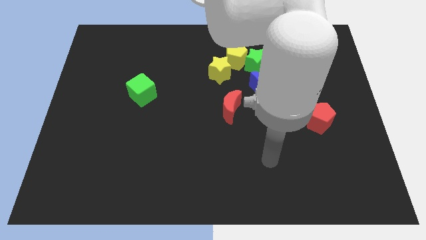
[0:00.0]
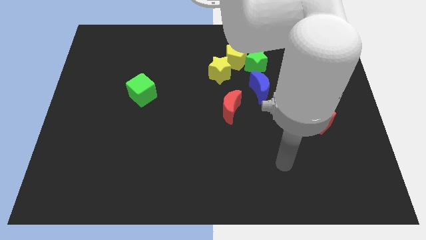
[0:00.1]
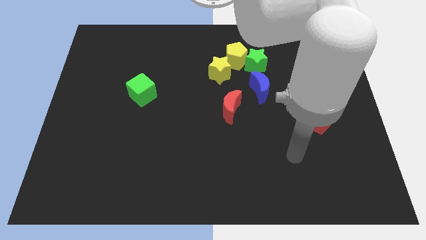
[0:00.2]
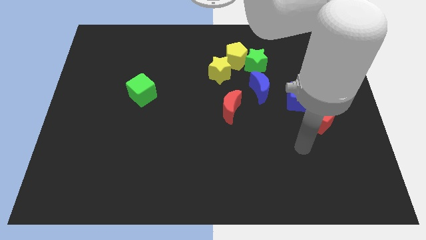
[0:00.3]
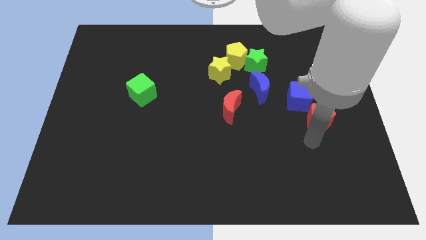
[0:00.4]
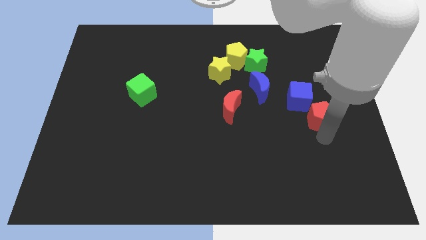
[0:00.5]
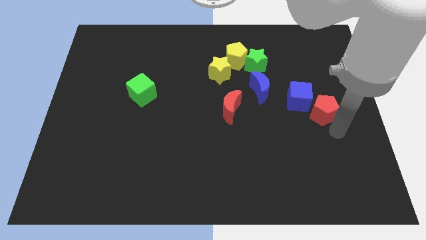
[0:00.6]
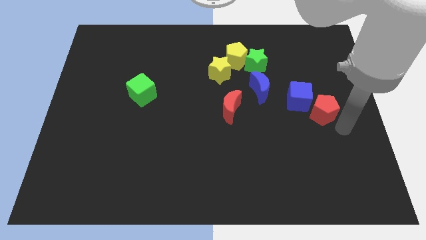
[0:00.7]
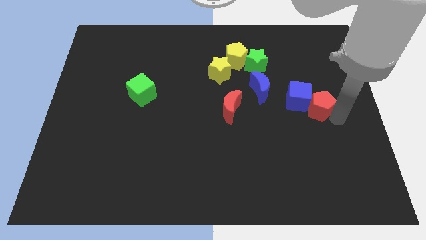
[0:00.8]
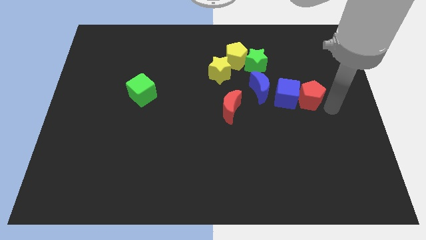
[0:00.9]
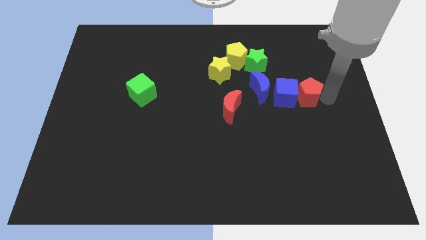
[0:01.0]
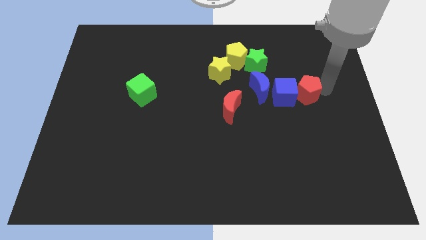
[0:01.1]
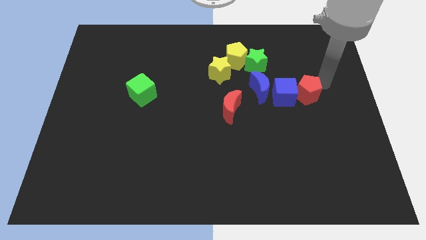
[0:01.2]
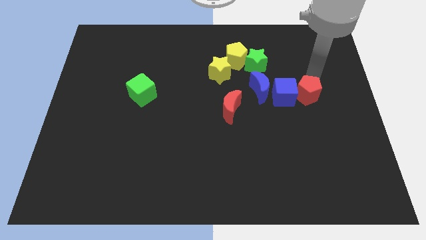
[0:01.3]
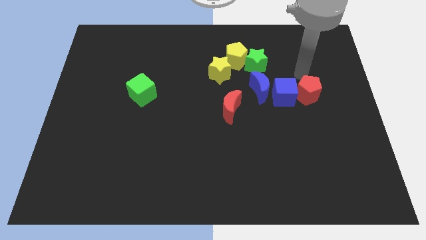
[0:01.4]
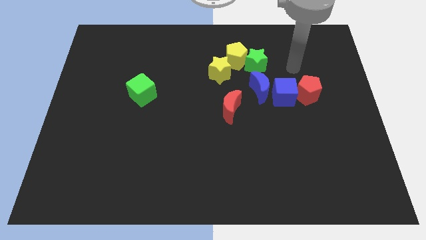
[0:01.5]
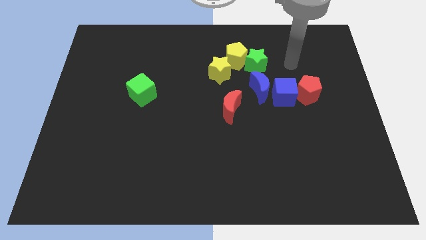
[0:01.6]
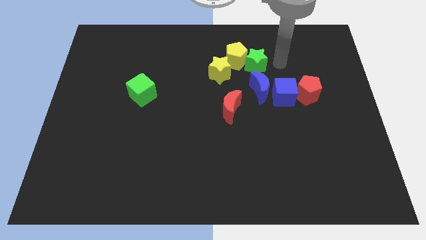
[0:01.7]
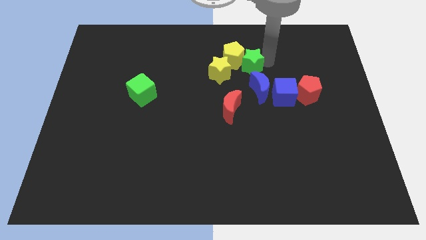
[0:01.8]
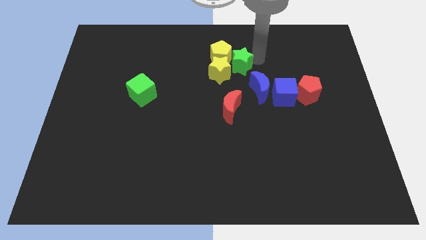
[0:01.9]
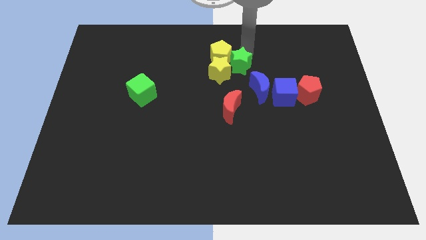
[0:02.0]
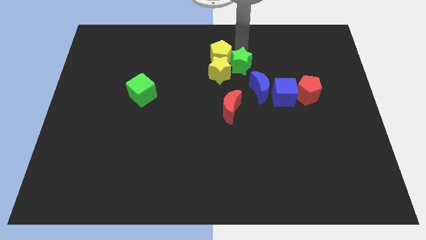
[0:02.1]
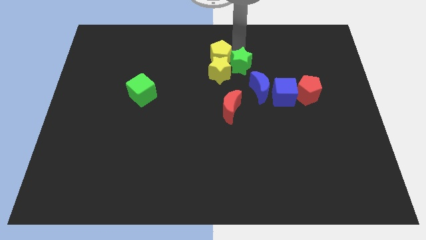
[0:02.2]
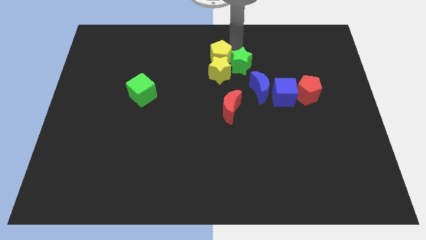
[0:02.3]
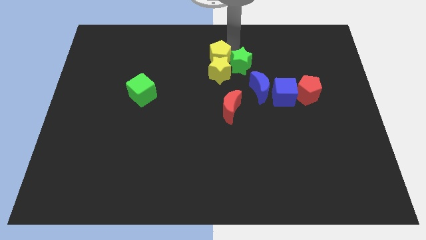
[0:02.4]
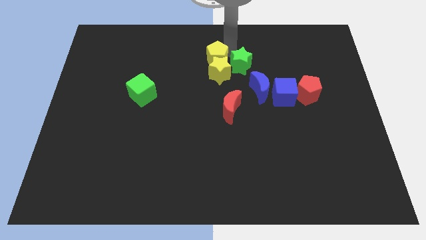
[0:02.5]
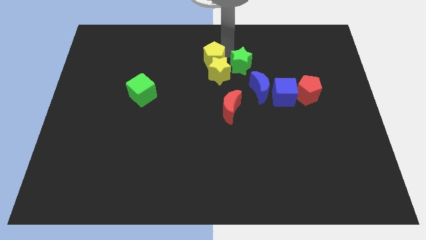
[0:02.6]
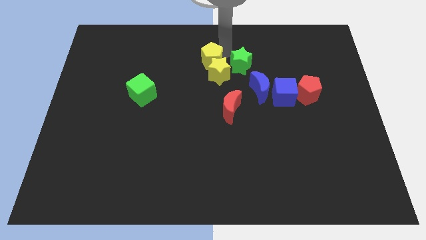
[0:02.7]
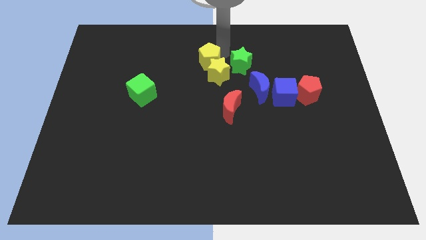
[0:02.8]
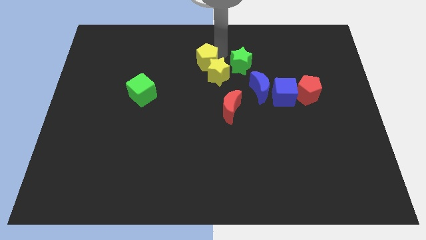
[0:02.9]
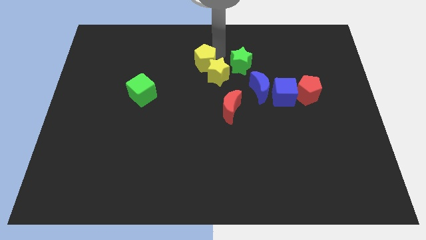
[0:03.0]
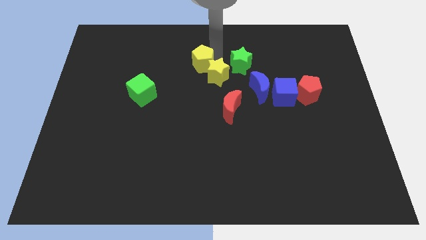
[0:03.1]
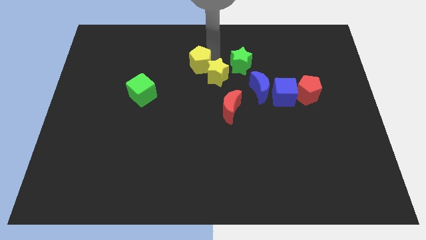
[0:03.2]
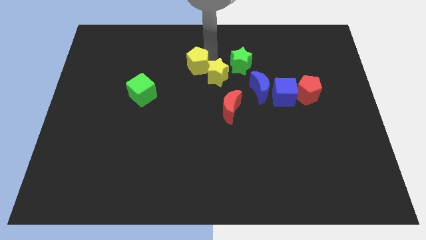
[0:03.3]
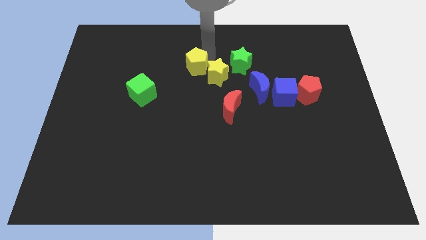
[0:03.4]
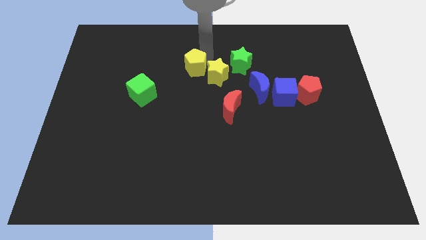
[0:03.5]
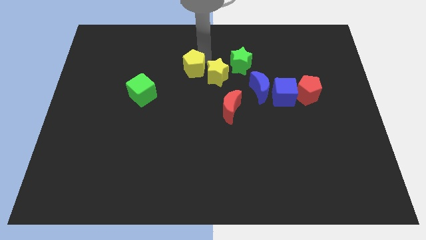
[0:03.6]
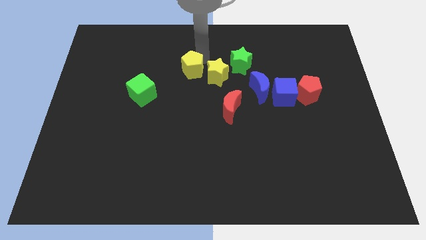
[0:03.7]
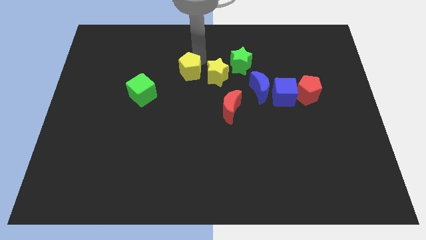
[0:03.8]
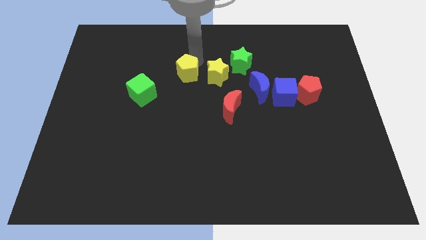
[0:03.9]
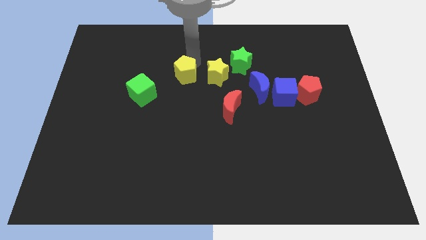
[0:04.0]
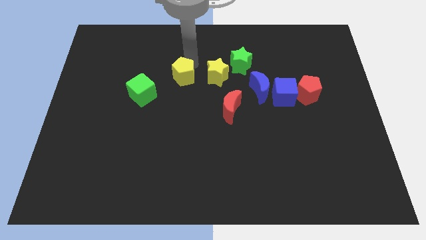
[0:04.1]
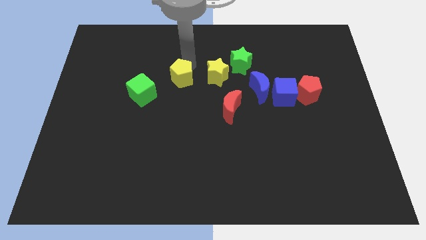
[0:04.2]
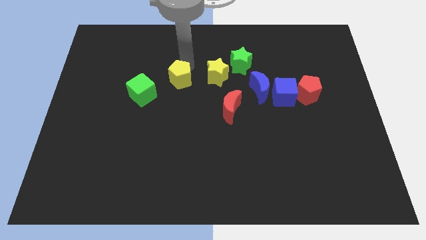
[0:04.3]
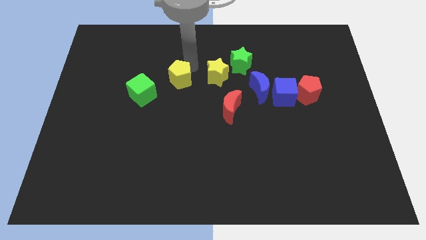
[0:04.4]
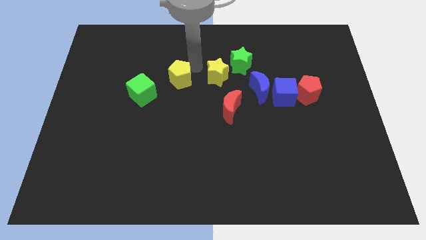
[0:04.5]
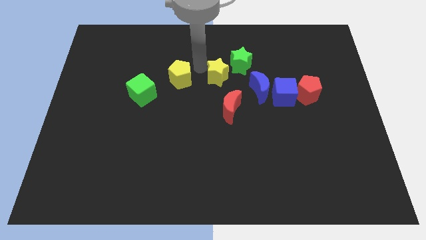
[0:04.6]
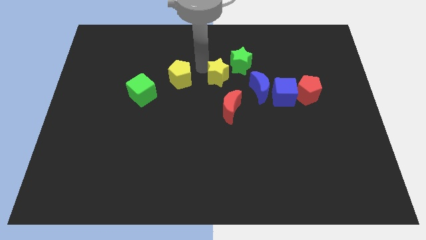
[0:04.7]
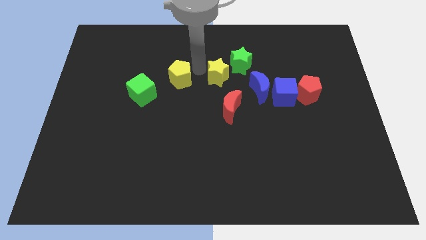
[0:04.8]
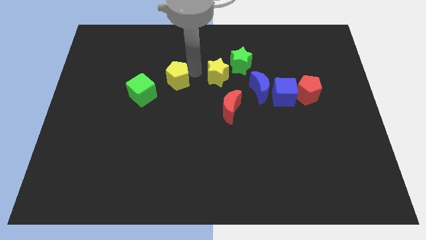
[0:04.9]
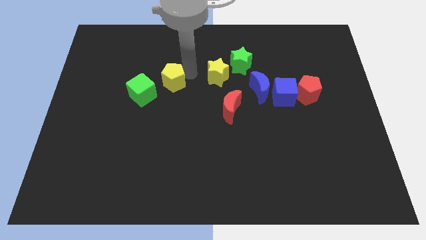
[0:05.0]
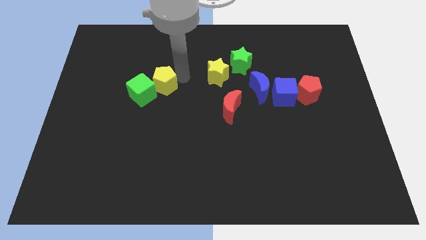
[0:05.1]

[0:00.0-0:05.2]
put the yellow pentagon close to the green cube

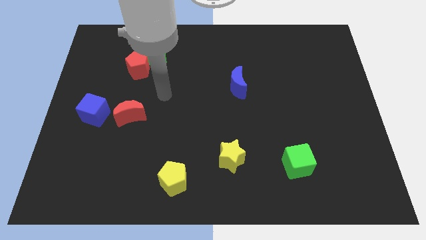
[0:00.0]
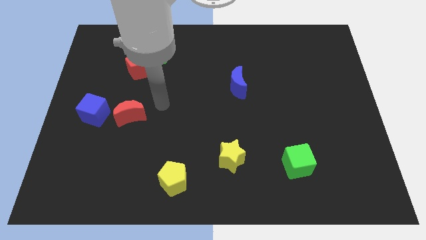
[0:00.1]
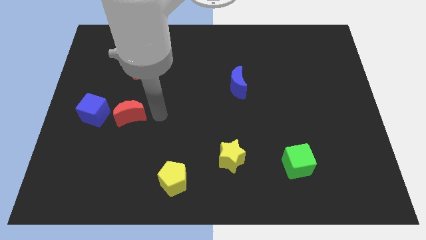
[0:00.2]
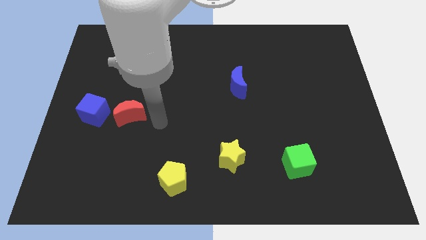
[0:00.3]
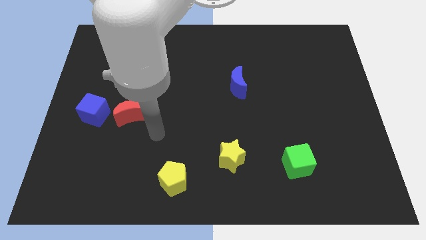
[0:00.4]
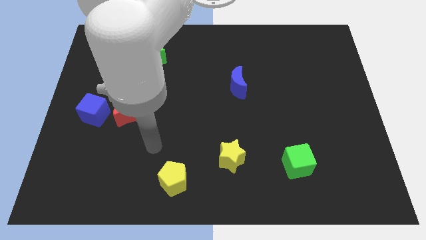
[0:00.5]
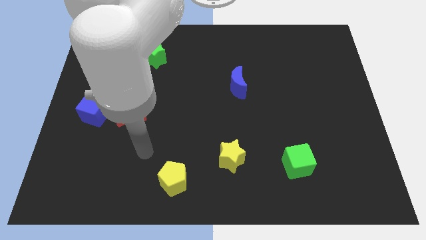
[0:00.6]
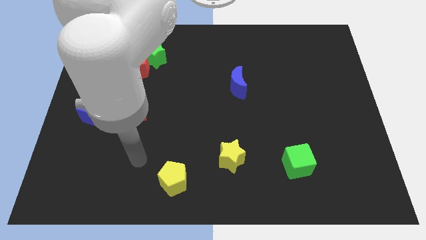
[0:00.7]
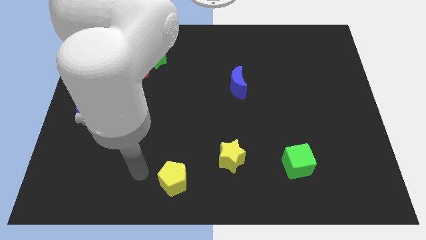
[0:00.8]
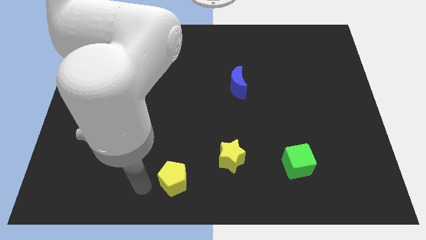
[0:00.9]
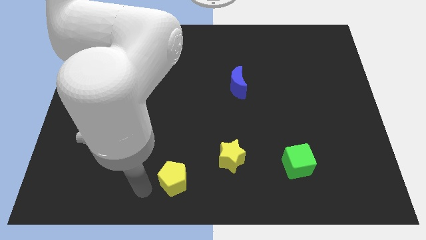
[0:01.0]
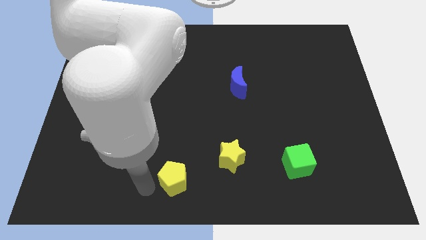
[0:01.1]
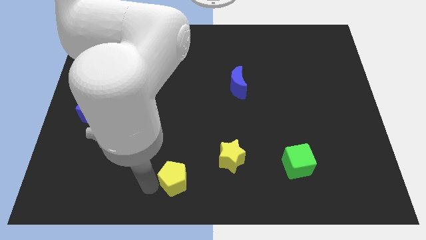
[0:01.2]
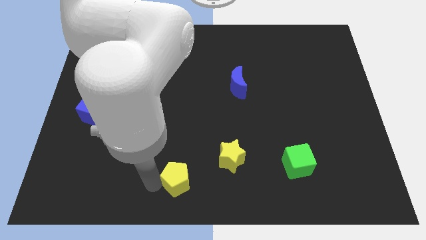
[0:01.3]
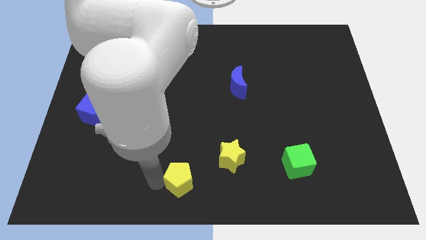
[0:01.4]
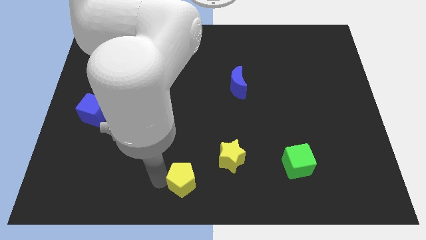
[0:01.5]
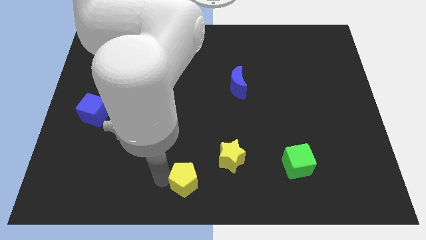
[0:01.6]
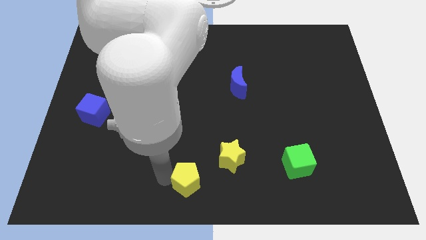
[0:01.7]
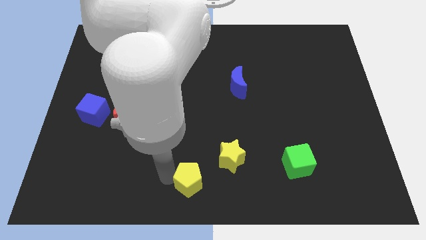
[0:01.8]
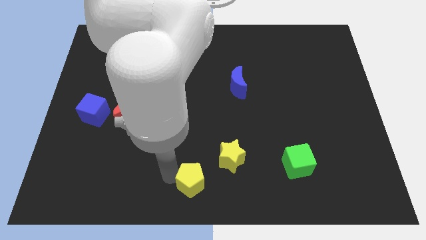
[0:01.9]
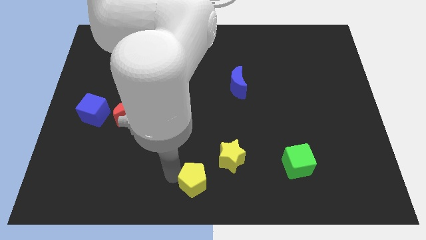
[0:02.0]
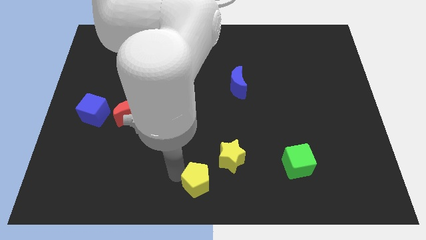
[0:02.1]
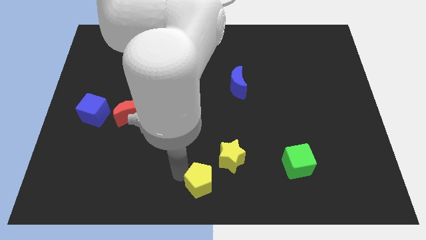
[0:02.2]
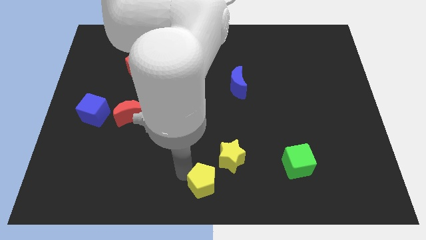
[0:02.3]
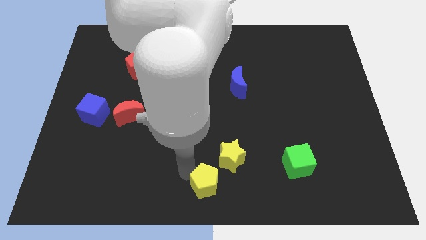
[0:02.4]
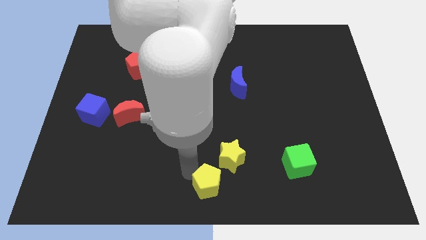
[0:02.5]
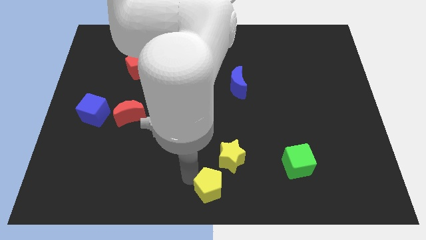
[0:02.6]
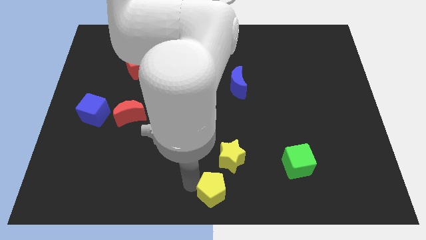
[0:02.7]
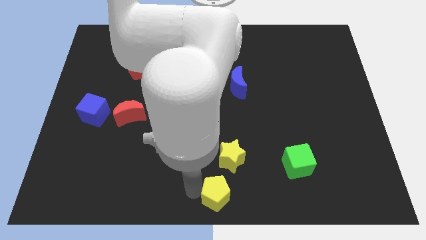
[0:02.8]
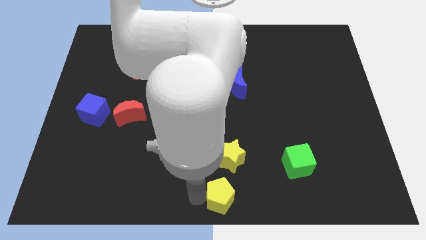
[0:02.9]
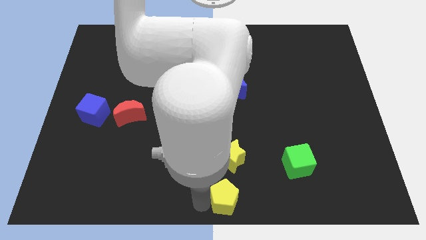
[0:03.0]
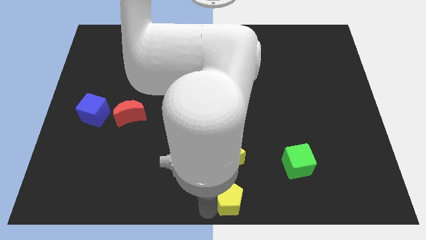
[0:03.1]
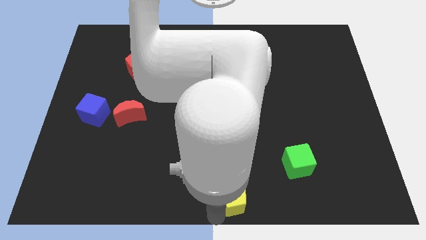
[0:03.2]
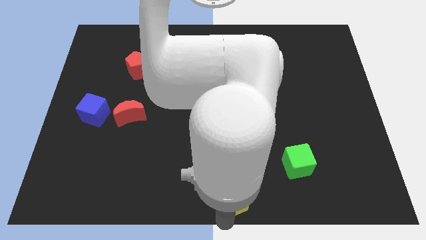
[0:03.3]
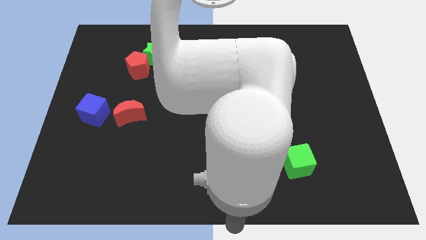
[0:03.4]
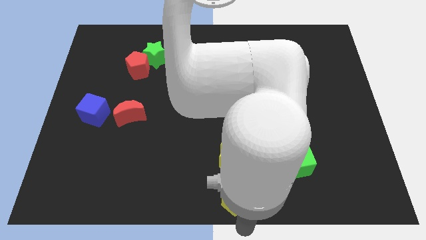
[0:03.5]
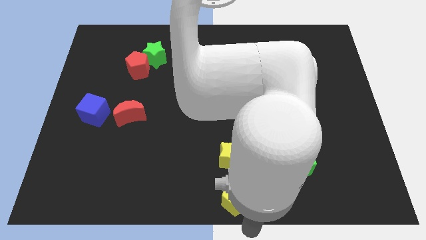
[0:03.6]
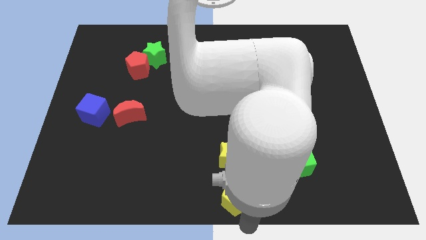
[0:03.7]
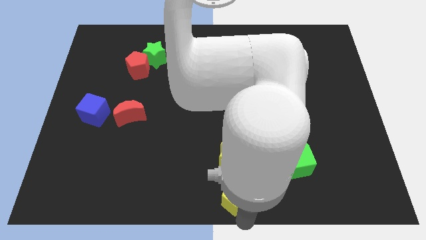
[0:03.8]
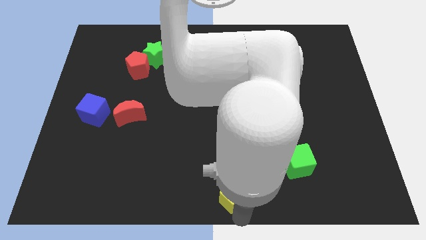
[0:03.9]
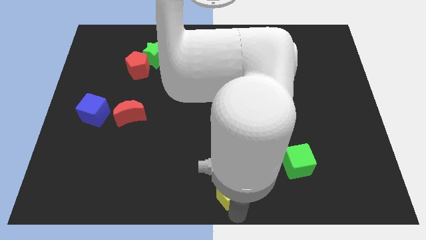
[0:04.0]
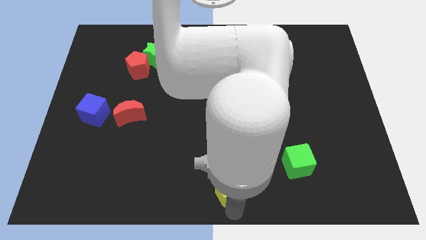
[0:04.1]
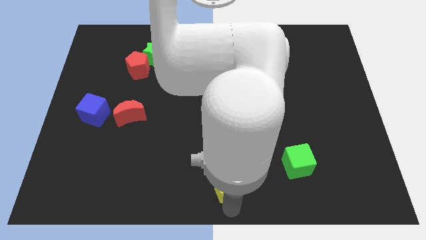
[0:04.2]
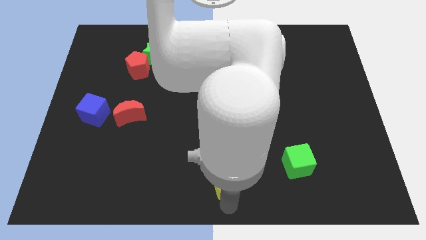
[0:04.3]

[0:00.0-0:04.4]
slide the yellow pentagon next to the yellow star
